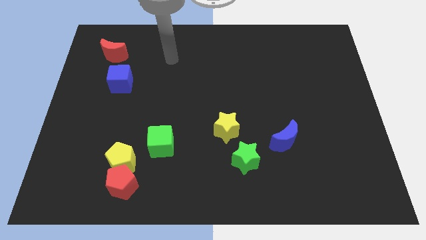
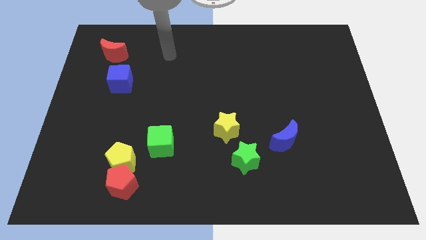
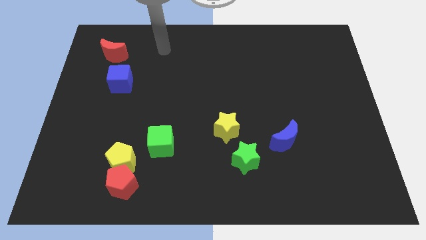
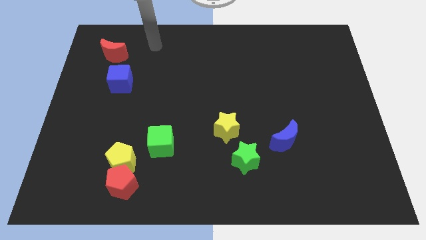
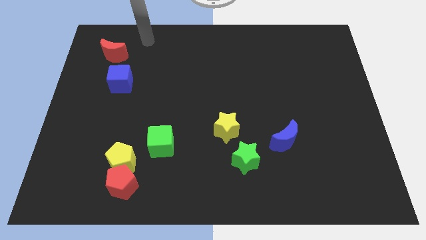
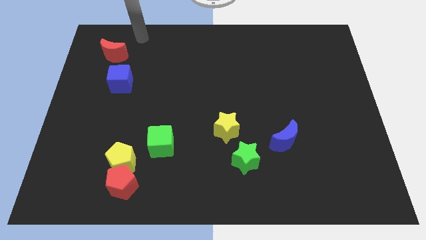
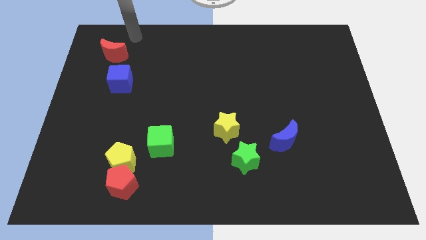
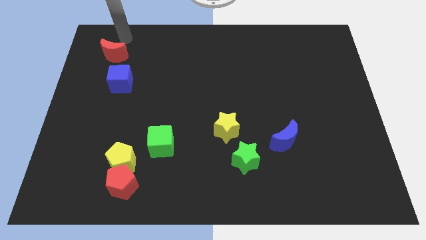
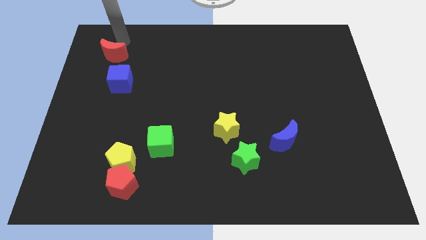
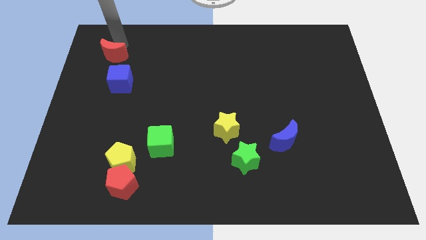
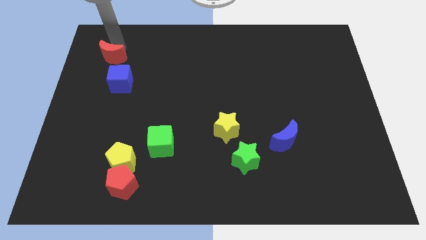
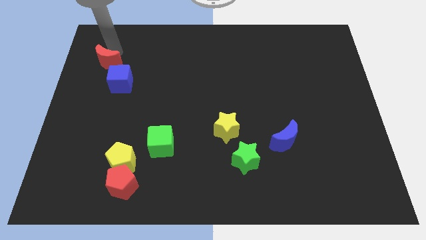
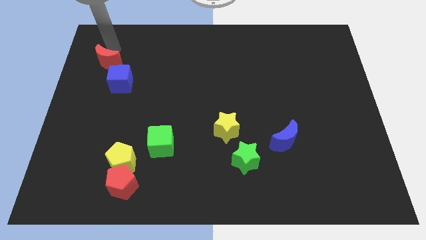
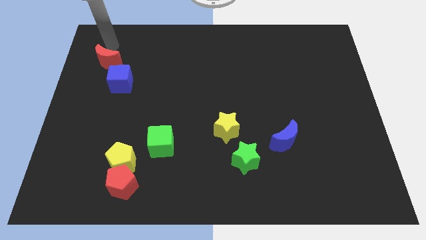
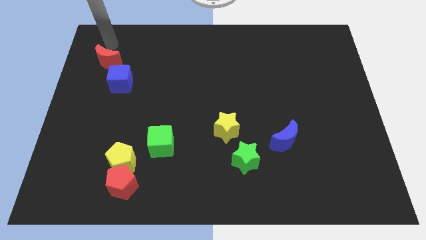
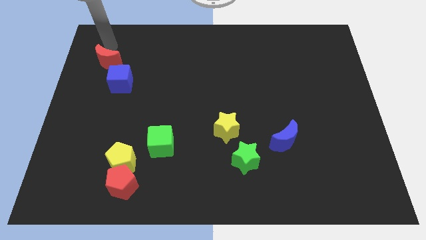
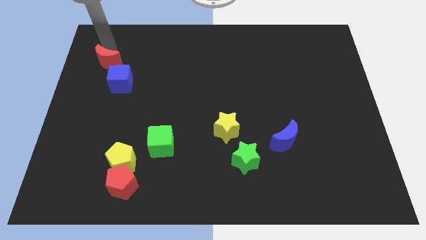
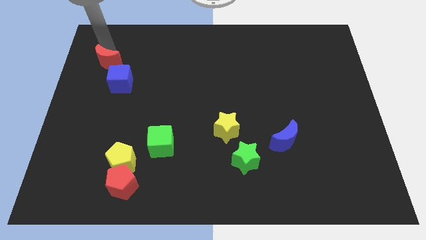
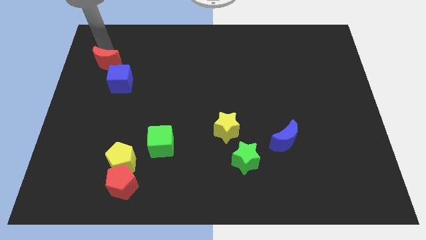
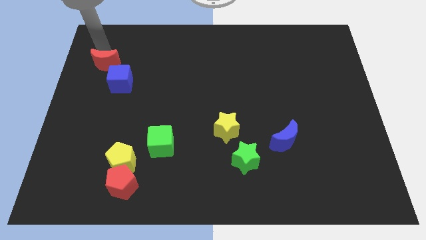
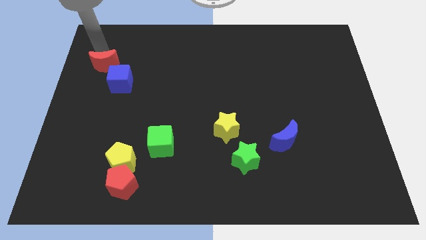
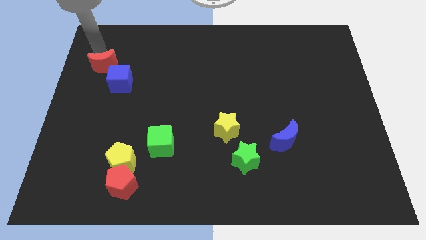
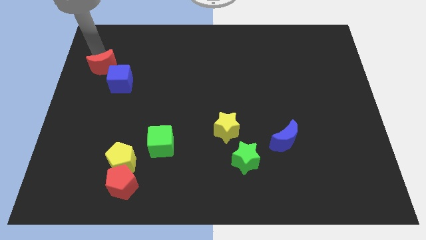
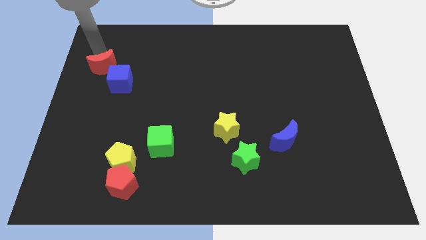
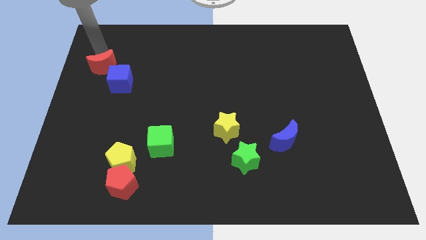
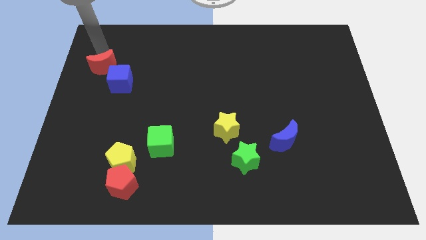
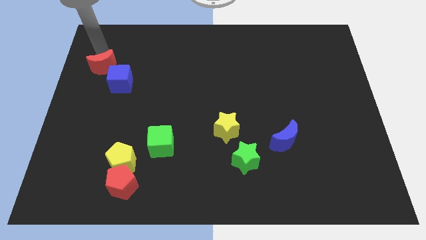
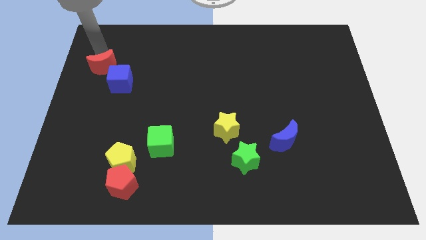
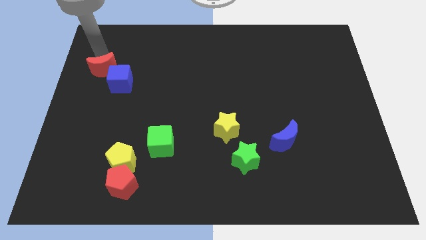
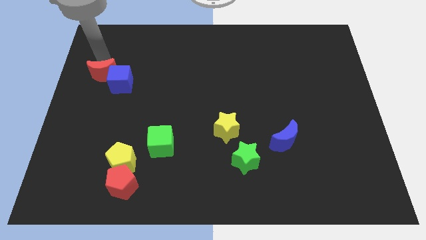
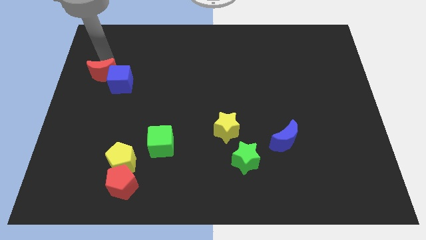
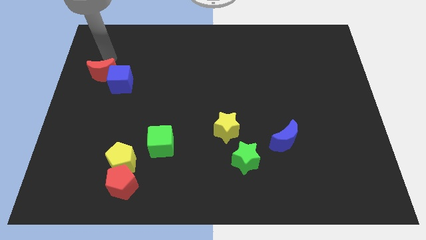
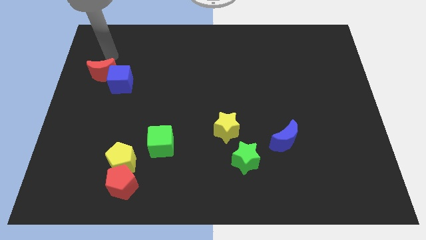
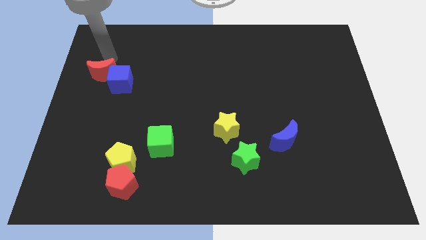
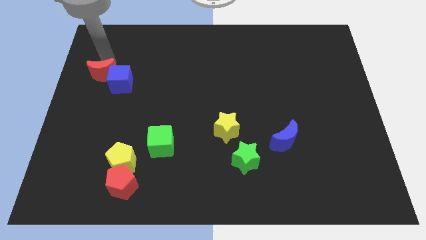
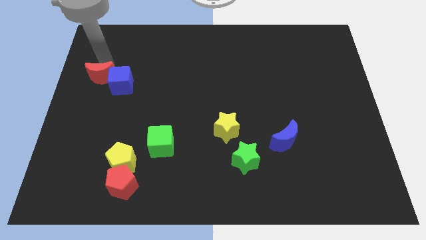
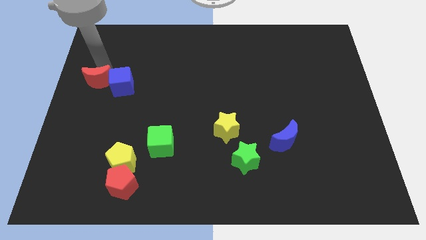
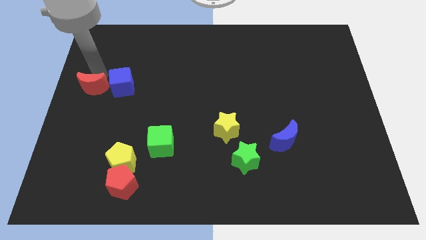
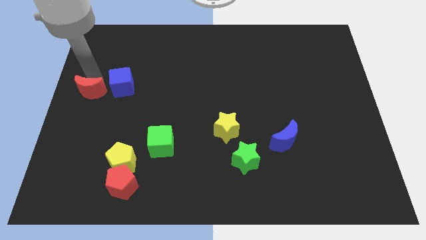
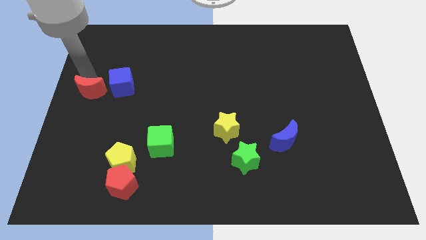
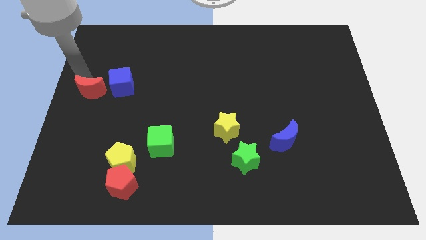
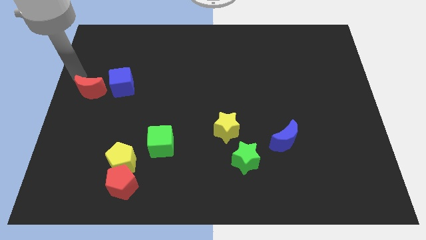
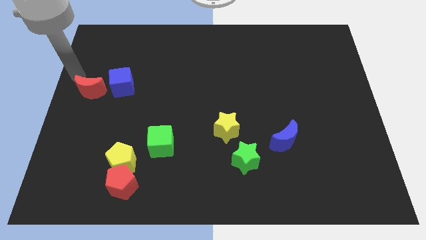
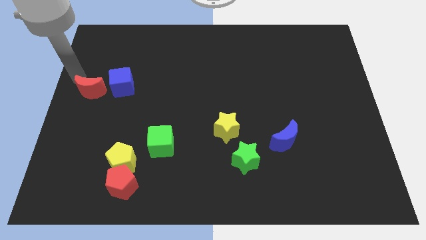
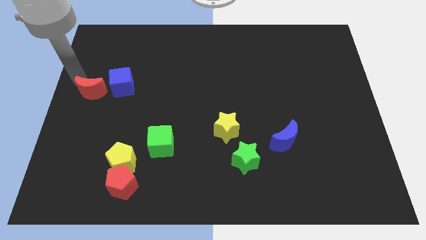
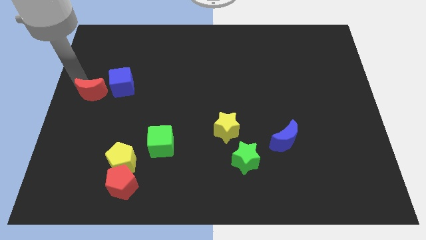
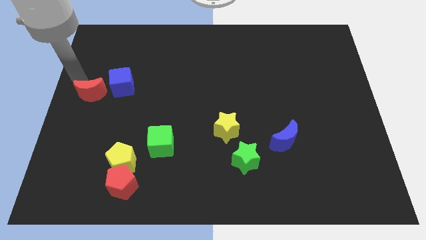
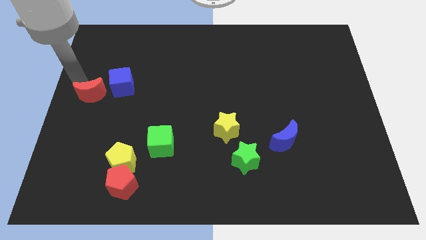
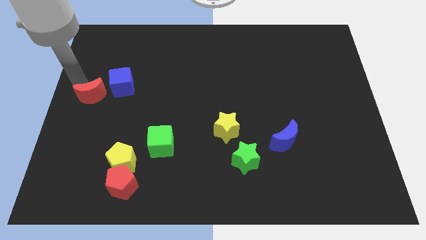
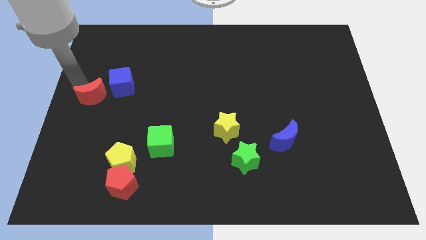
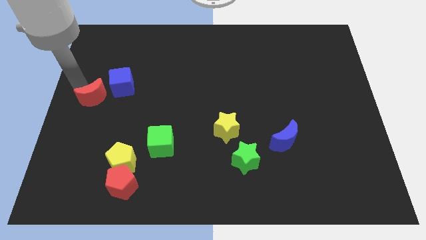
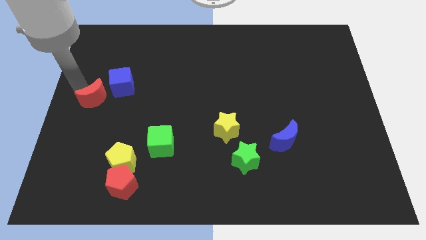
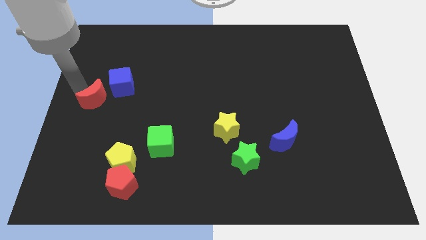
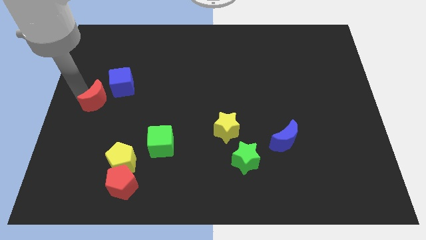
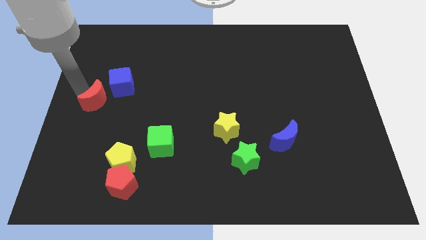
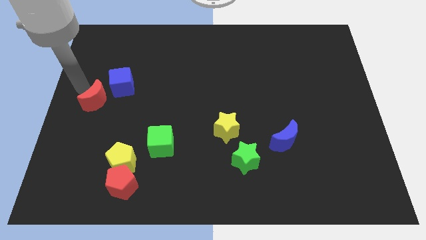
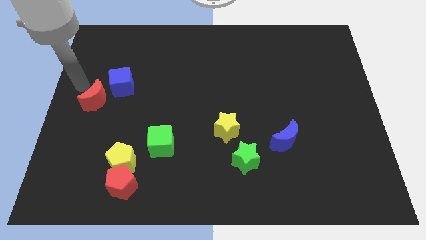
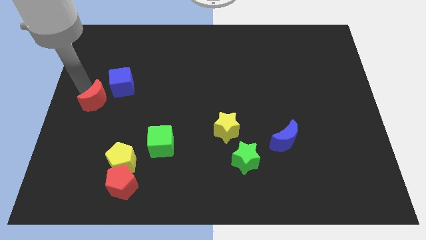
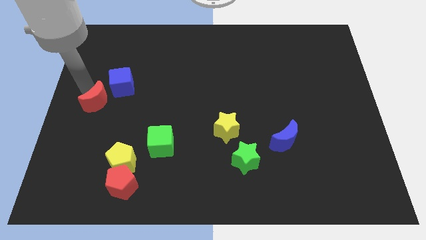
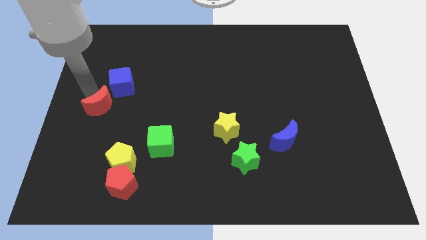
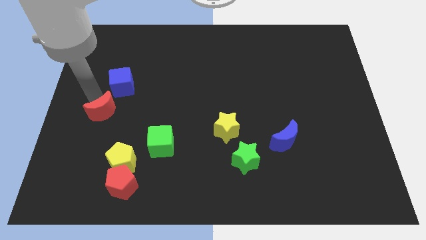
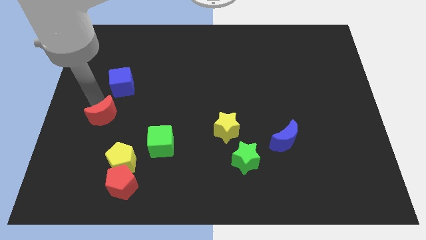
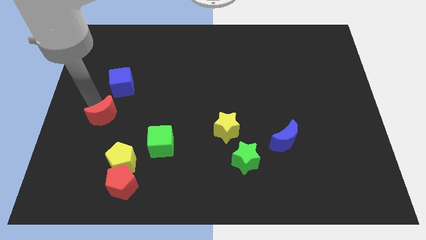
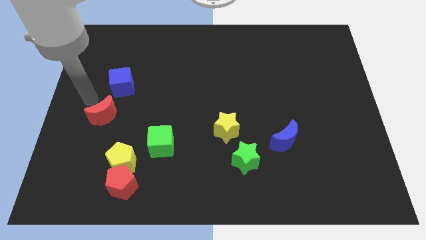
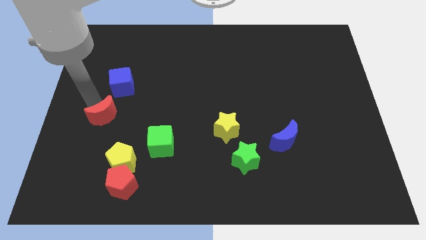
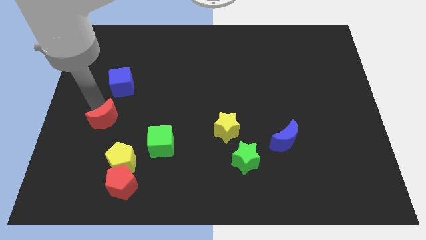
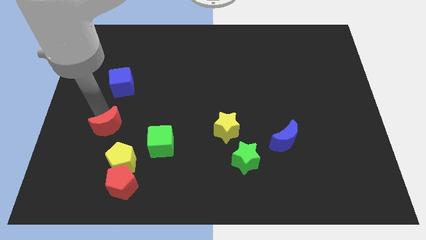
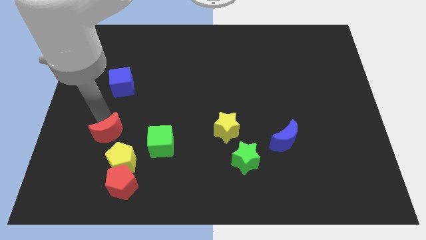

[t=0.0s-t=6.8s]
move the red moon to the top of the red pentagon

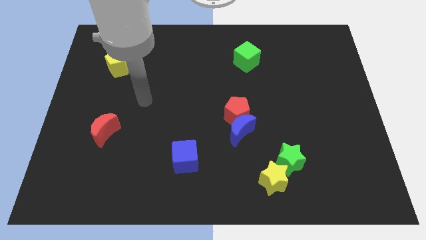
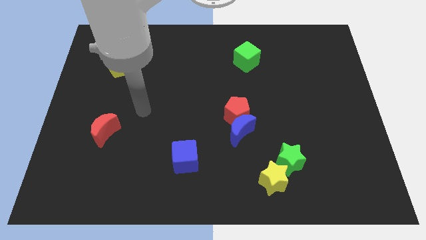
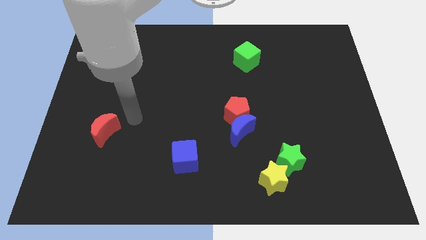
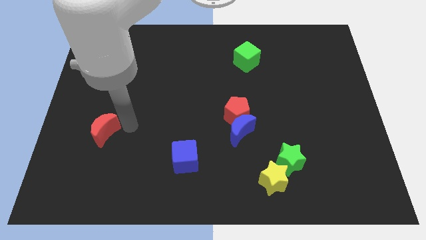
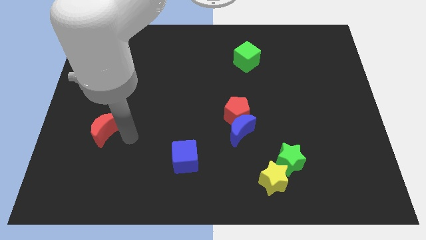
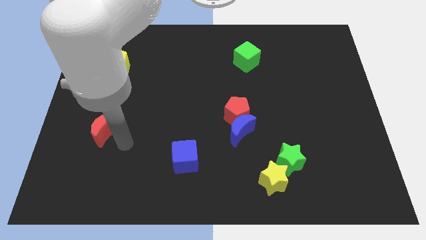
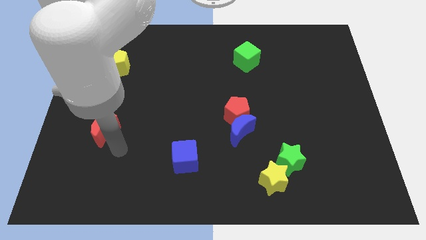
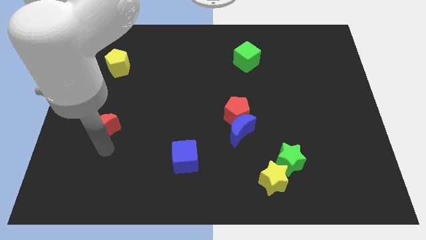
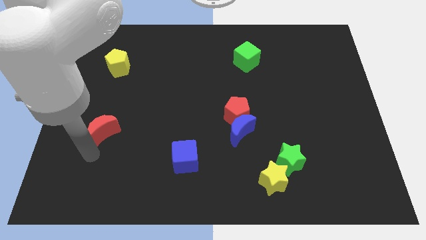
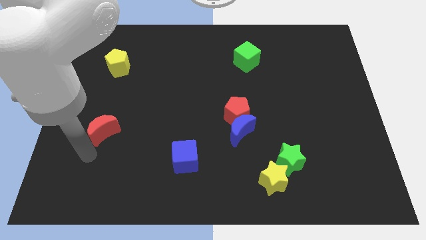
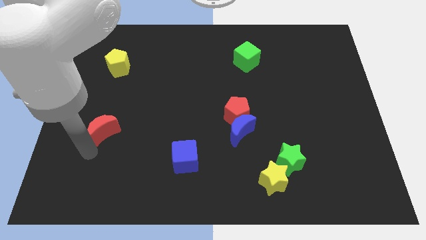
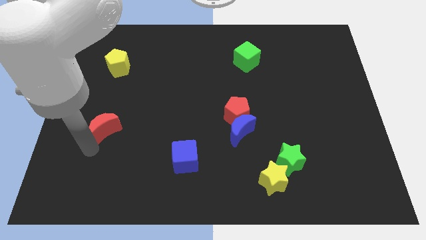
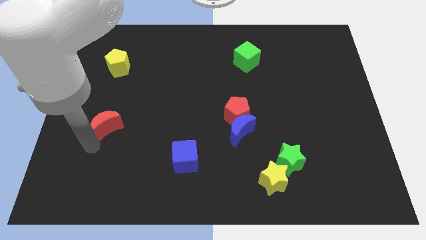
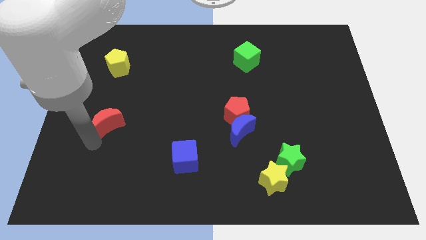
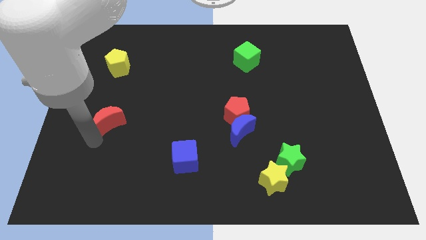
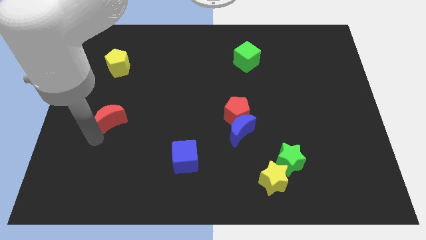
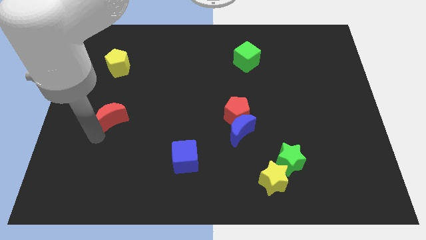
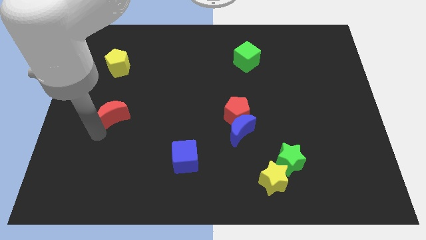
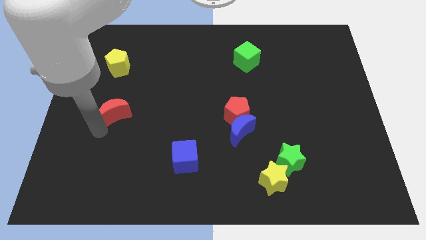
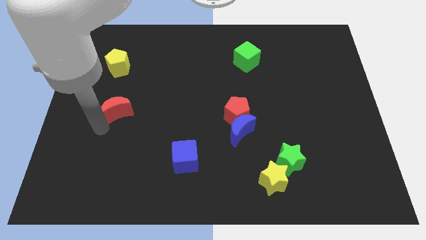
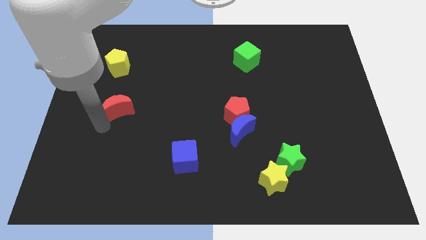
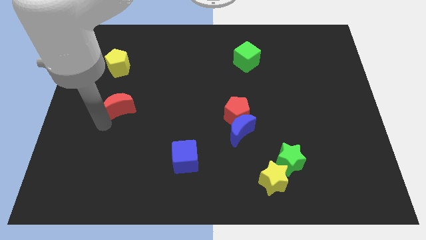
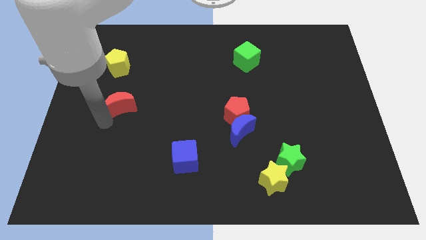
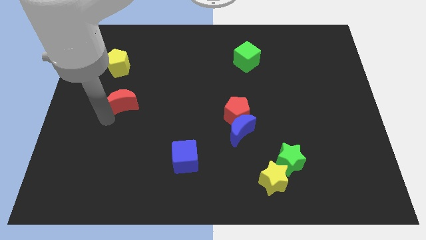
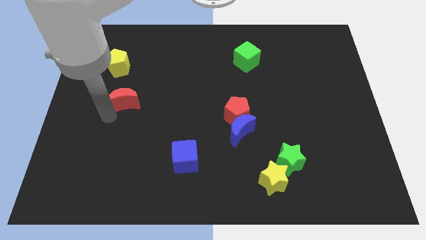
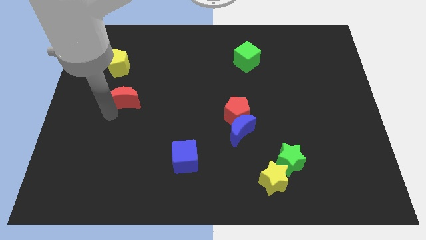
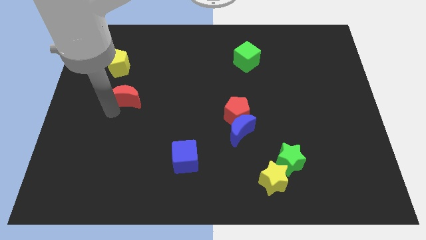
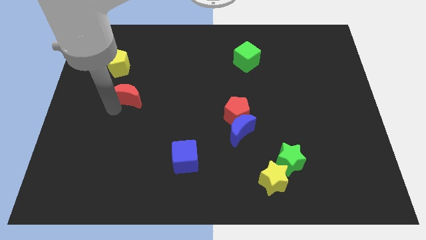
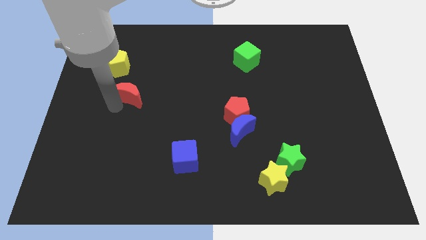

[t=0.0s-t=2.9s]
slide the red moon diagonally down and to the right of the yellow pentagon
